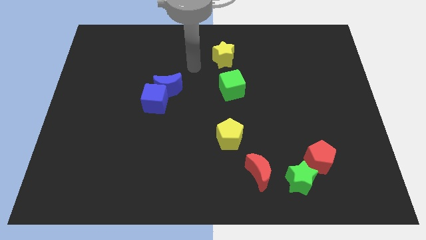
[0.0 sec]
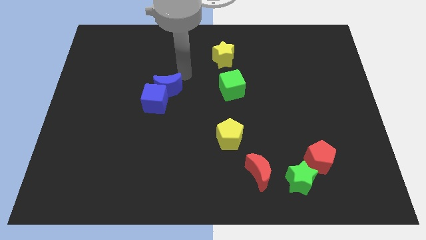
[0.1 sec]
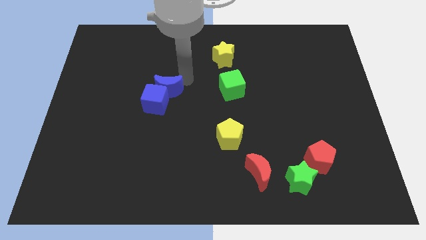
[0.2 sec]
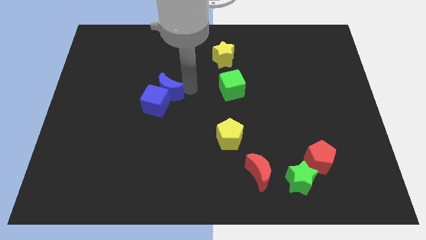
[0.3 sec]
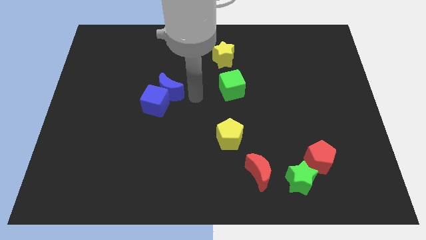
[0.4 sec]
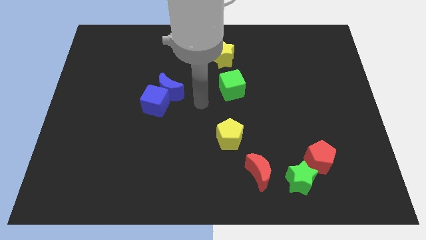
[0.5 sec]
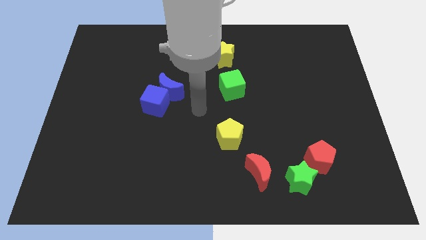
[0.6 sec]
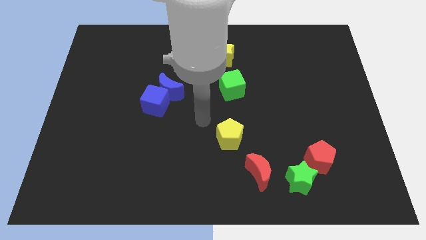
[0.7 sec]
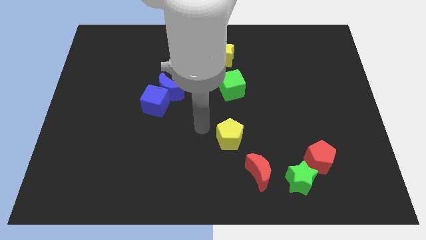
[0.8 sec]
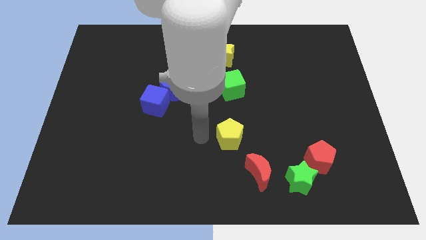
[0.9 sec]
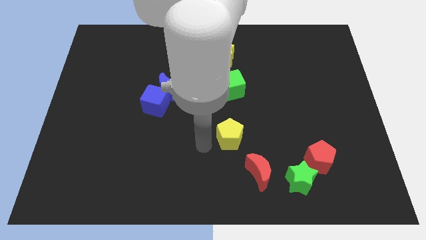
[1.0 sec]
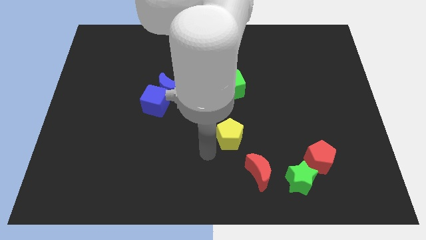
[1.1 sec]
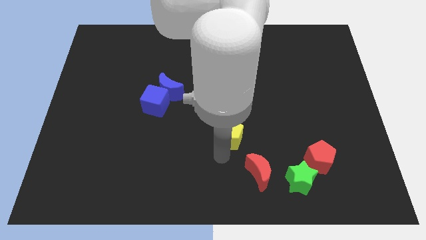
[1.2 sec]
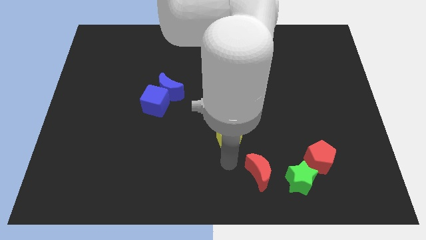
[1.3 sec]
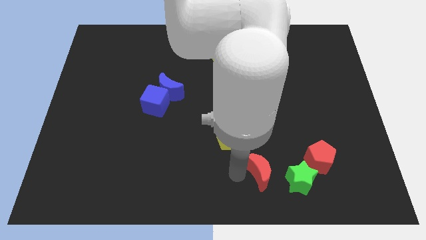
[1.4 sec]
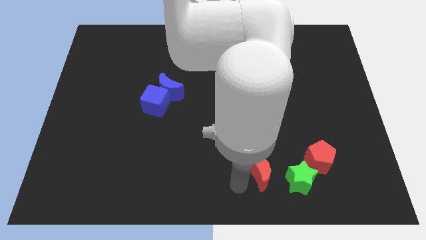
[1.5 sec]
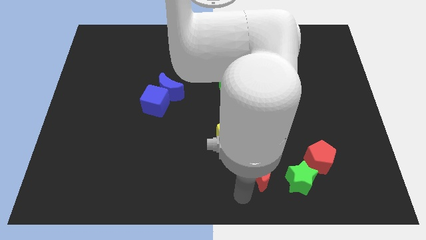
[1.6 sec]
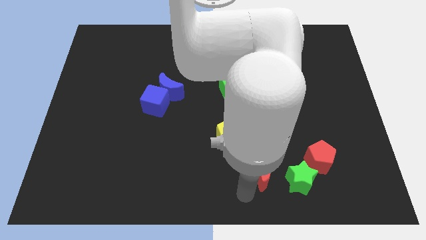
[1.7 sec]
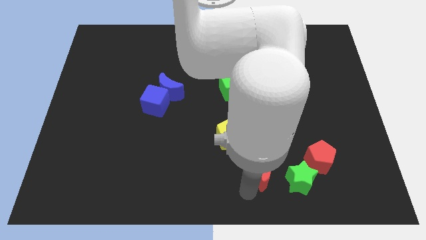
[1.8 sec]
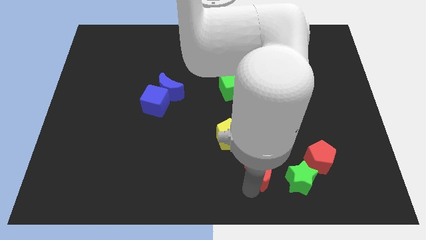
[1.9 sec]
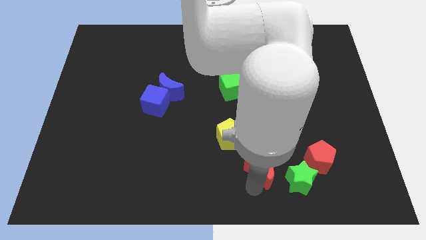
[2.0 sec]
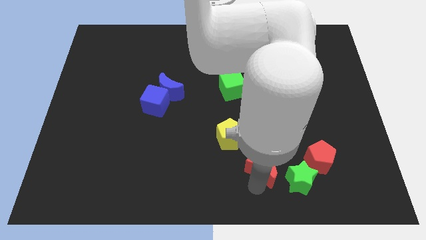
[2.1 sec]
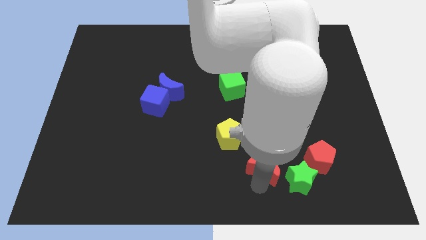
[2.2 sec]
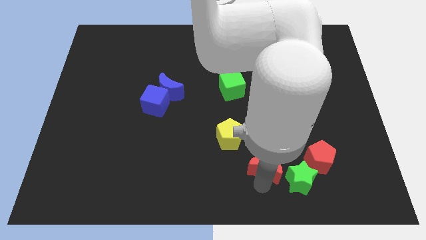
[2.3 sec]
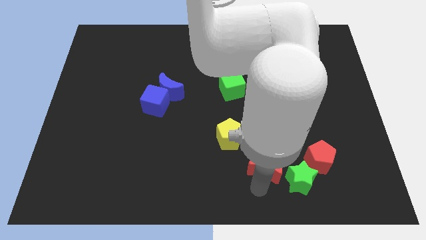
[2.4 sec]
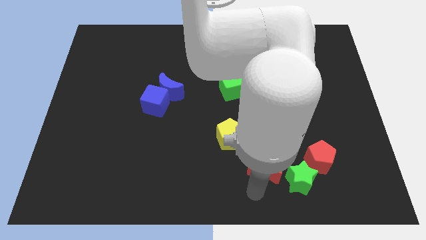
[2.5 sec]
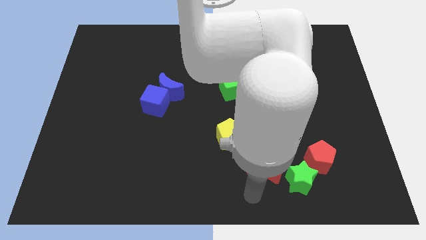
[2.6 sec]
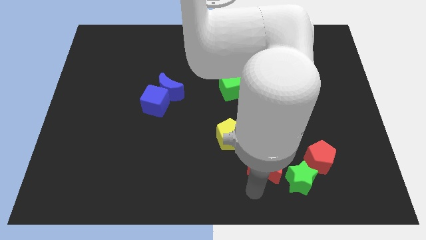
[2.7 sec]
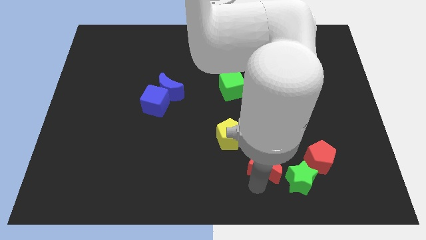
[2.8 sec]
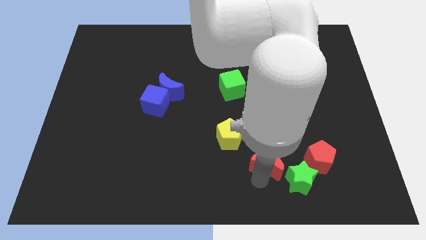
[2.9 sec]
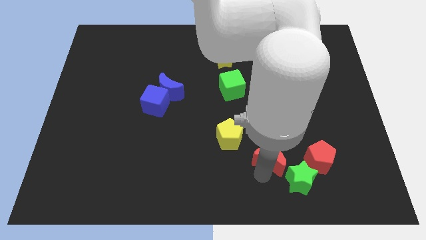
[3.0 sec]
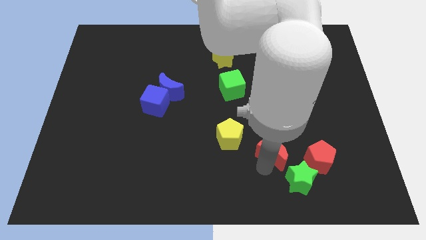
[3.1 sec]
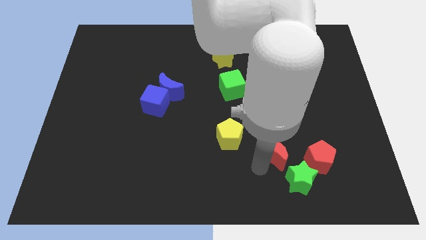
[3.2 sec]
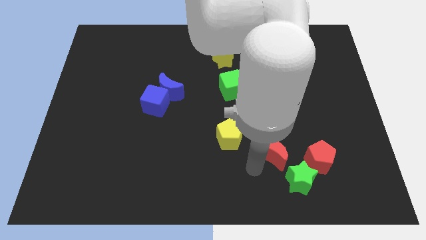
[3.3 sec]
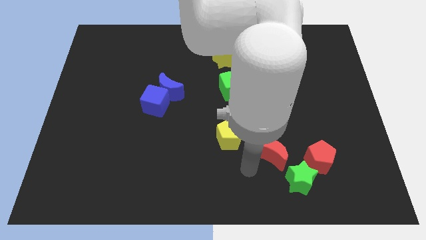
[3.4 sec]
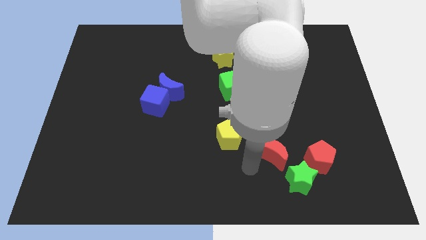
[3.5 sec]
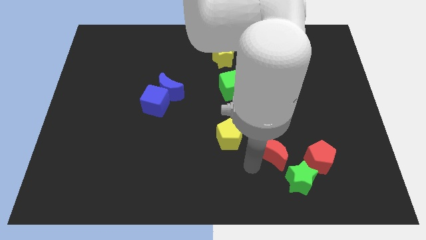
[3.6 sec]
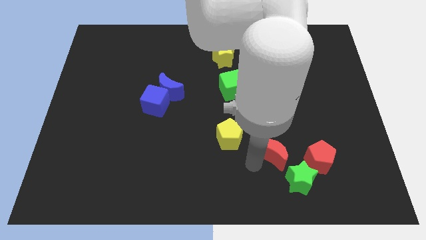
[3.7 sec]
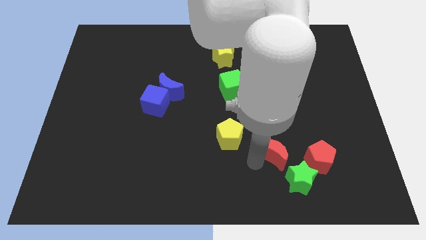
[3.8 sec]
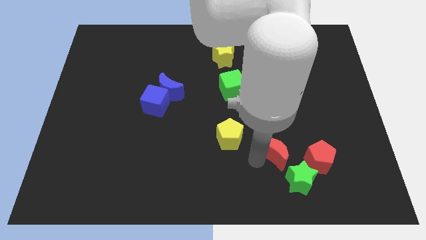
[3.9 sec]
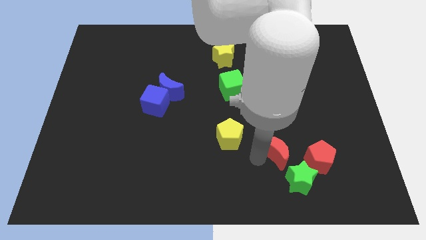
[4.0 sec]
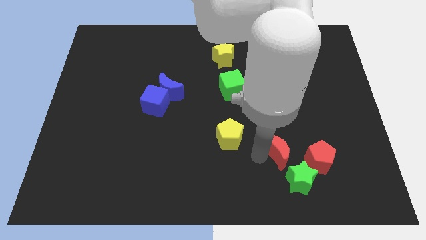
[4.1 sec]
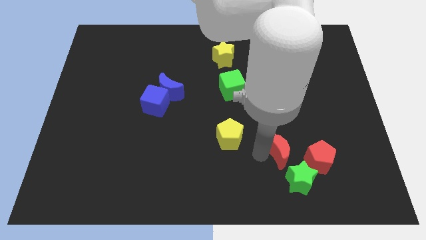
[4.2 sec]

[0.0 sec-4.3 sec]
move the red moon diagonally up and to the right a bit

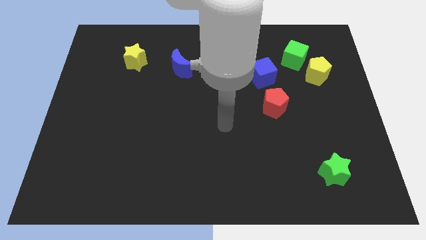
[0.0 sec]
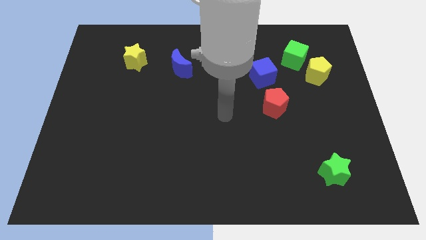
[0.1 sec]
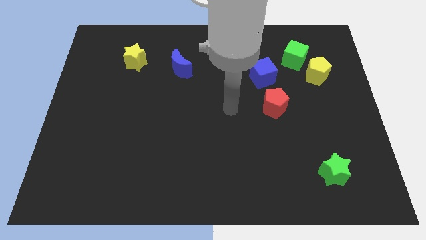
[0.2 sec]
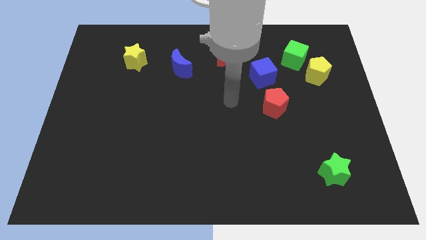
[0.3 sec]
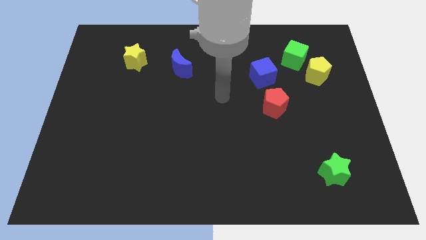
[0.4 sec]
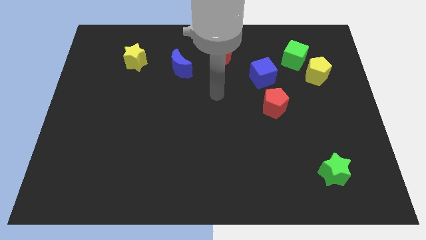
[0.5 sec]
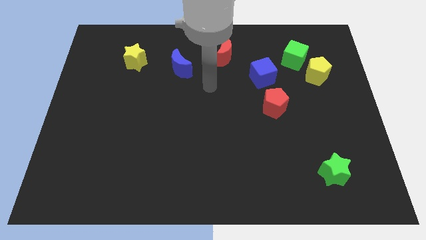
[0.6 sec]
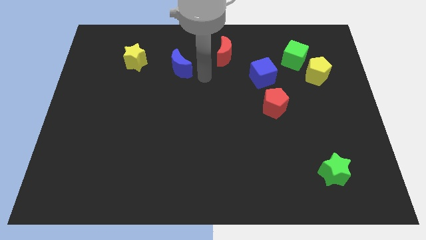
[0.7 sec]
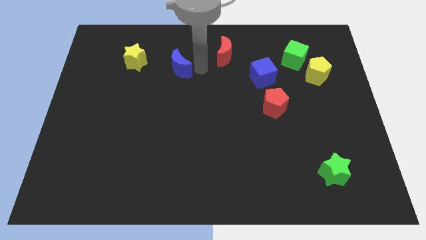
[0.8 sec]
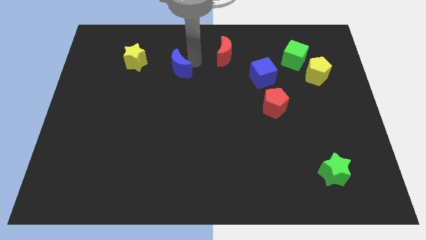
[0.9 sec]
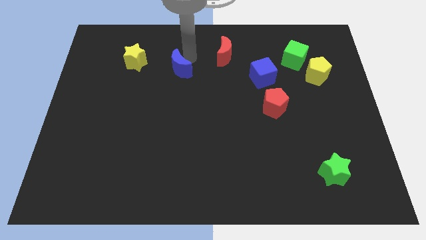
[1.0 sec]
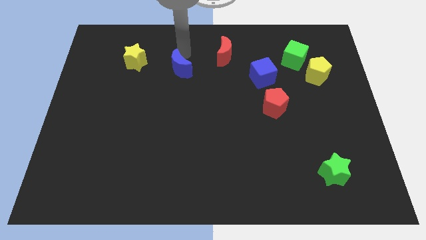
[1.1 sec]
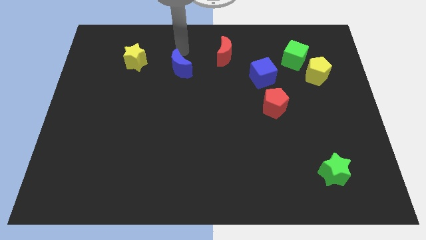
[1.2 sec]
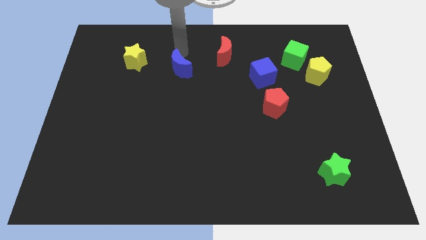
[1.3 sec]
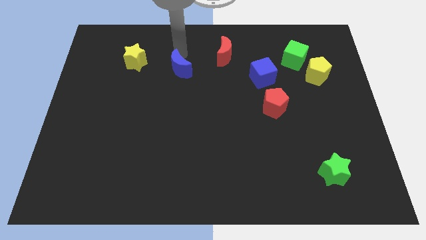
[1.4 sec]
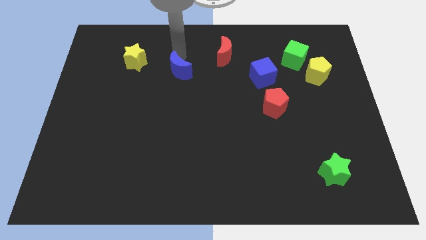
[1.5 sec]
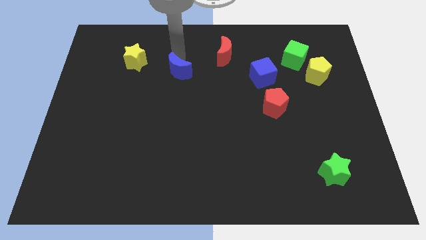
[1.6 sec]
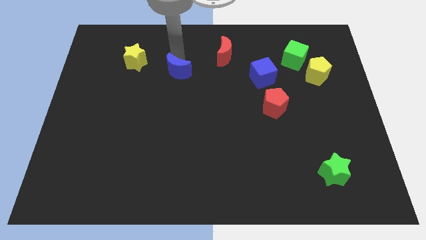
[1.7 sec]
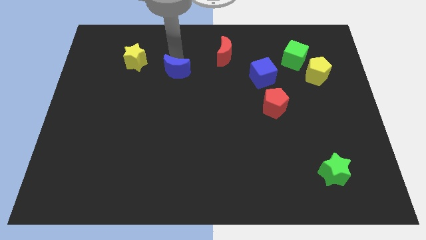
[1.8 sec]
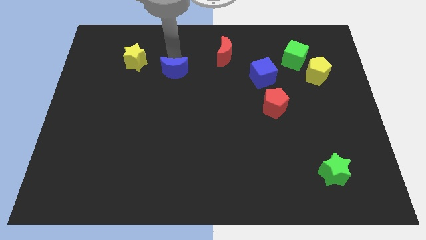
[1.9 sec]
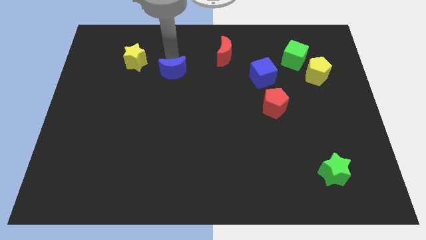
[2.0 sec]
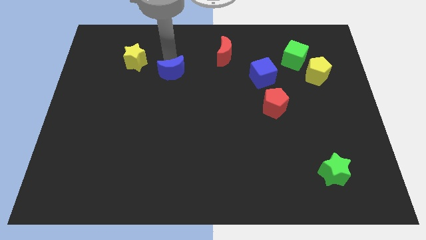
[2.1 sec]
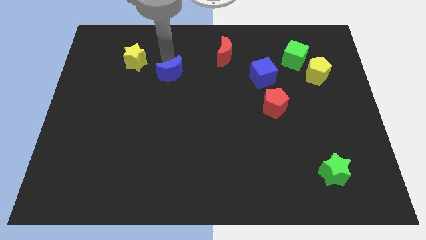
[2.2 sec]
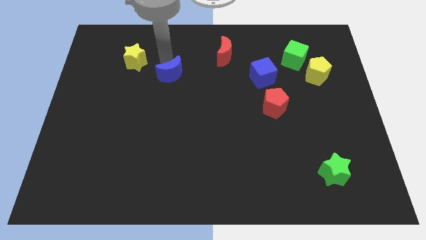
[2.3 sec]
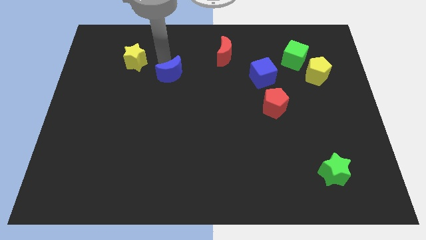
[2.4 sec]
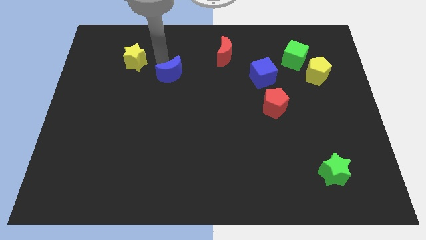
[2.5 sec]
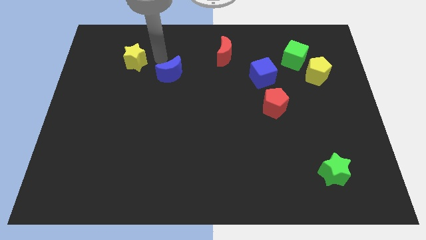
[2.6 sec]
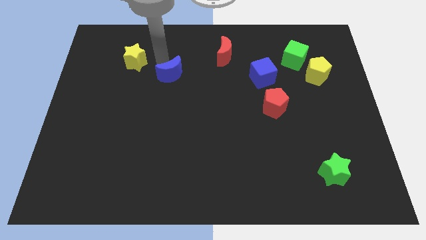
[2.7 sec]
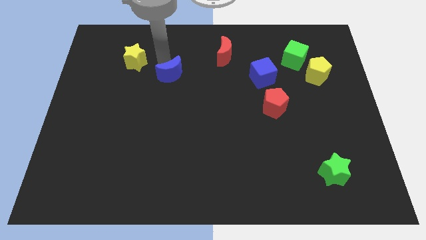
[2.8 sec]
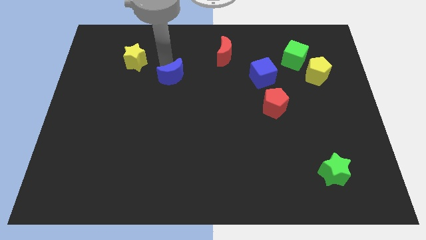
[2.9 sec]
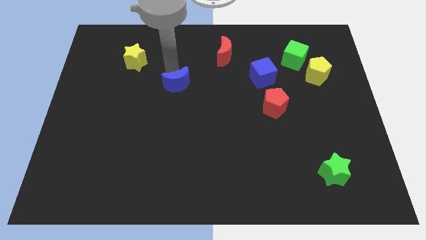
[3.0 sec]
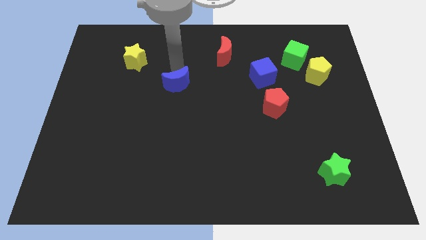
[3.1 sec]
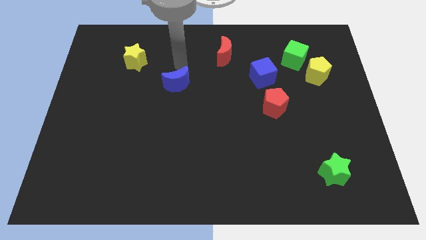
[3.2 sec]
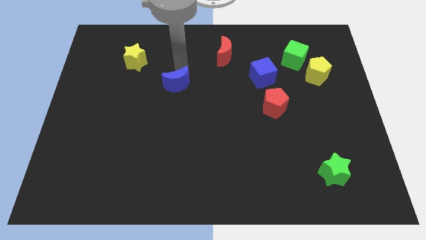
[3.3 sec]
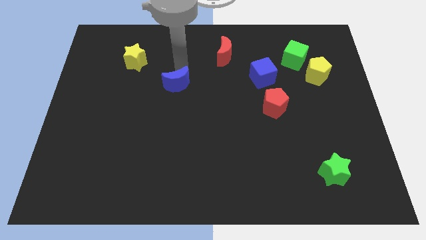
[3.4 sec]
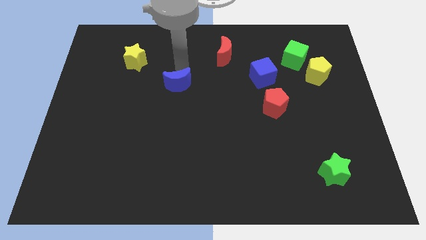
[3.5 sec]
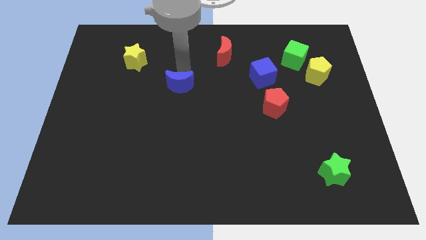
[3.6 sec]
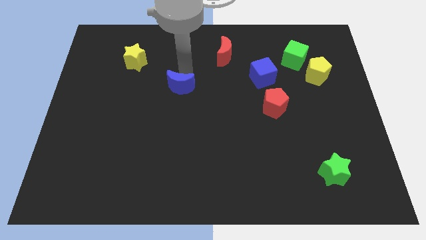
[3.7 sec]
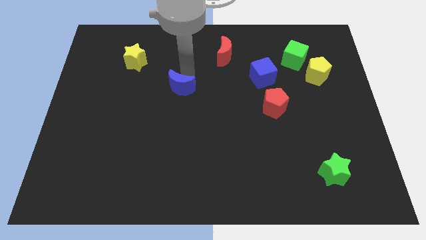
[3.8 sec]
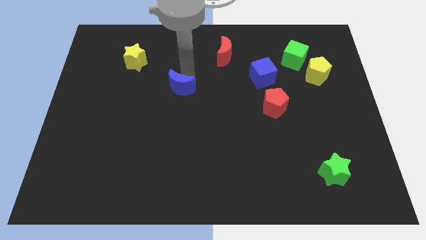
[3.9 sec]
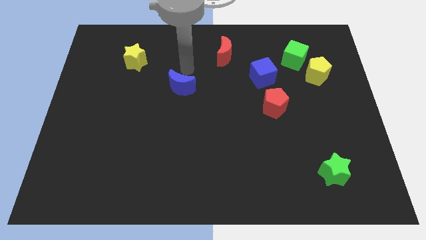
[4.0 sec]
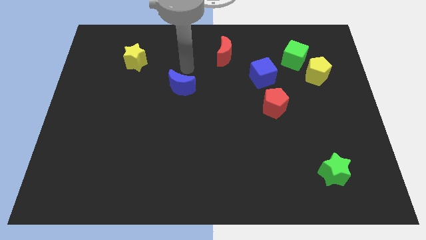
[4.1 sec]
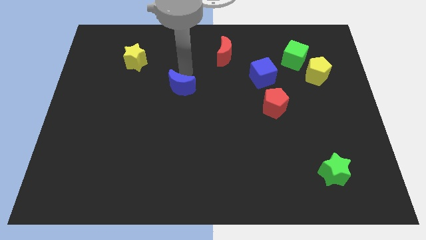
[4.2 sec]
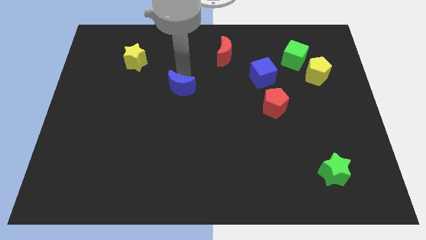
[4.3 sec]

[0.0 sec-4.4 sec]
slightly move the blue moon down
